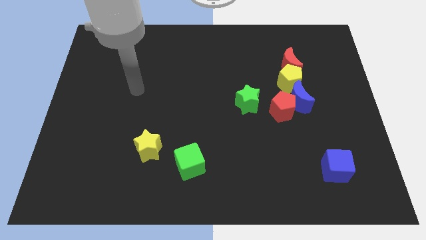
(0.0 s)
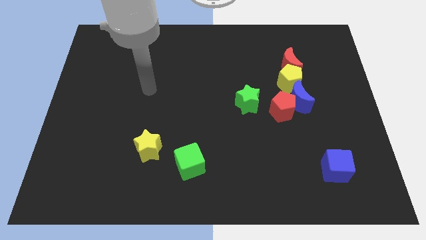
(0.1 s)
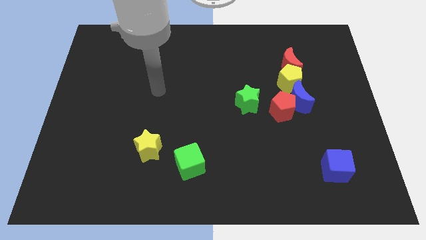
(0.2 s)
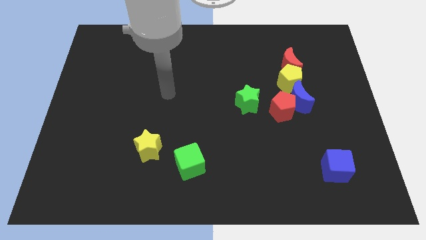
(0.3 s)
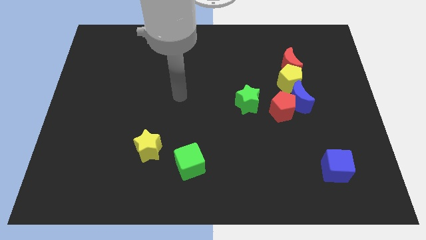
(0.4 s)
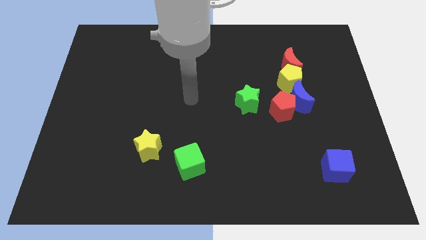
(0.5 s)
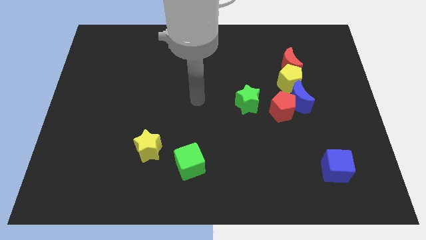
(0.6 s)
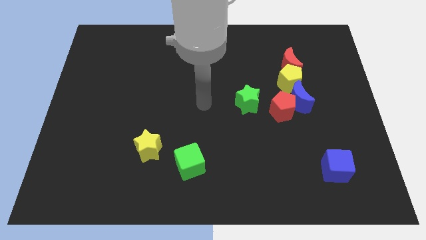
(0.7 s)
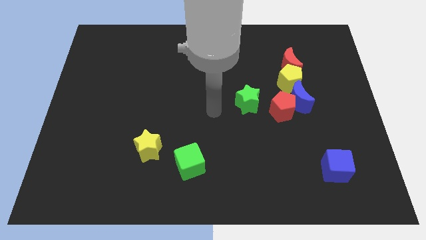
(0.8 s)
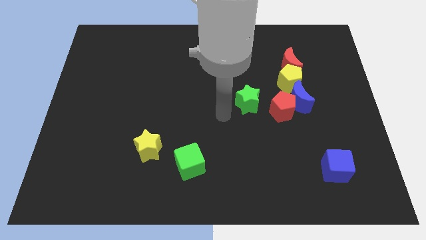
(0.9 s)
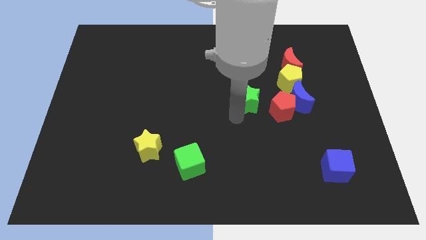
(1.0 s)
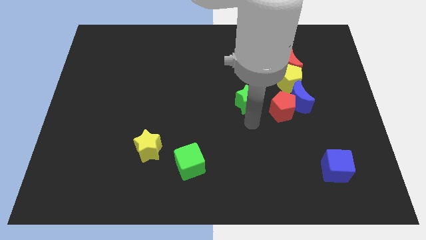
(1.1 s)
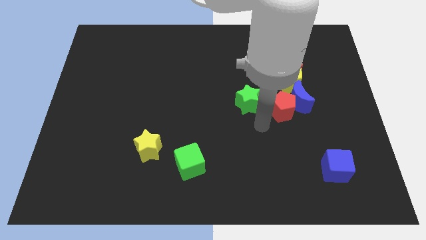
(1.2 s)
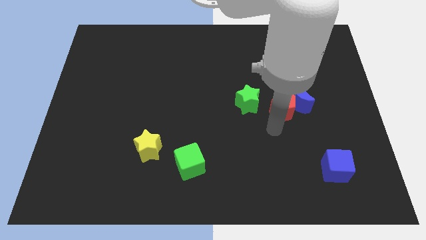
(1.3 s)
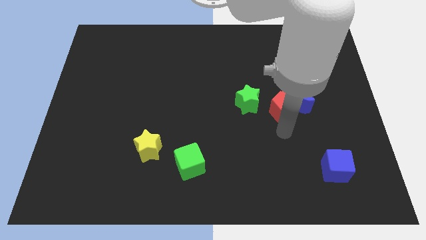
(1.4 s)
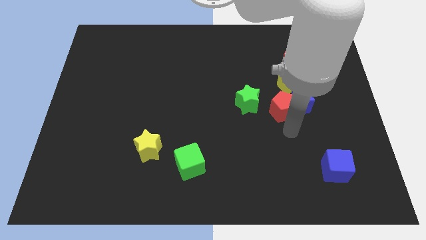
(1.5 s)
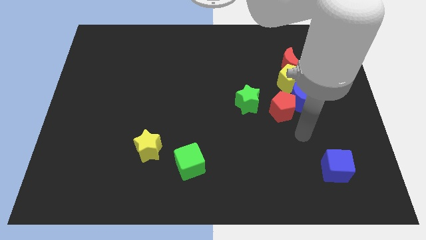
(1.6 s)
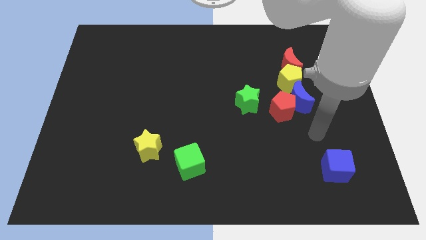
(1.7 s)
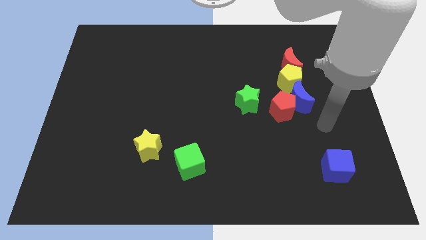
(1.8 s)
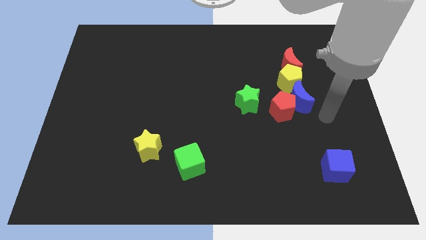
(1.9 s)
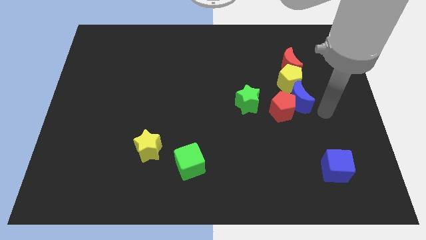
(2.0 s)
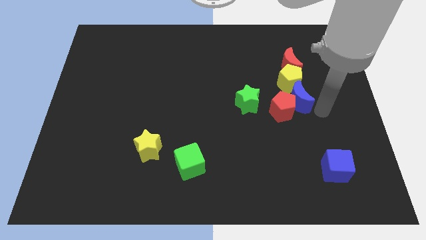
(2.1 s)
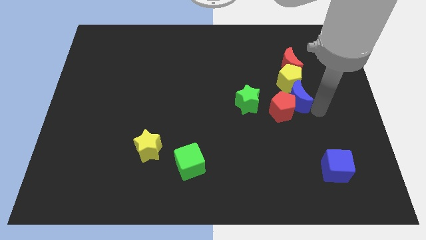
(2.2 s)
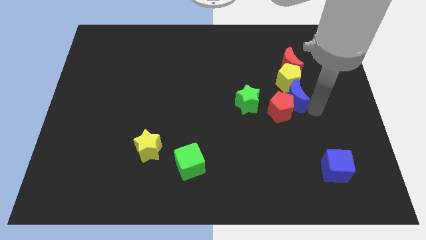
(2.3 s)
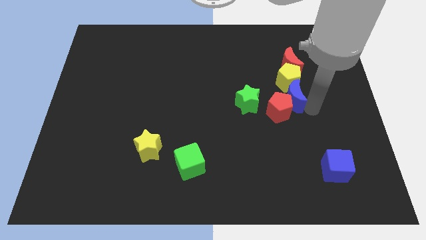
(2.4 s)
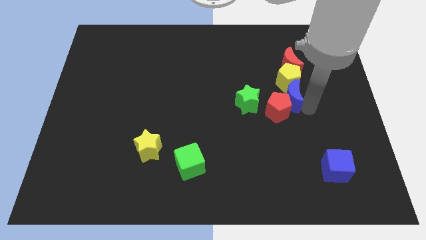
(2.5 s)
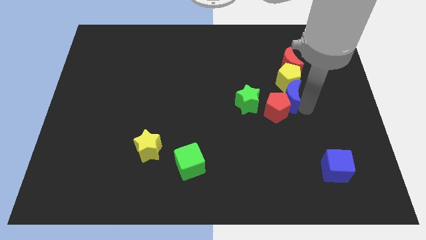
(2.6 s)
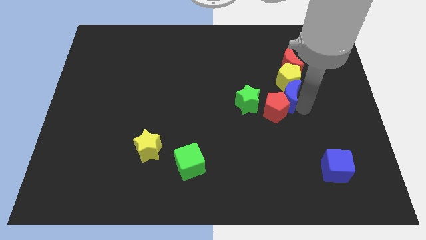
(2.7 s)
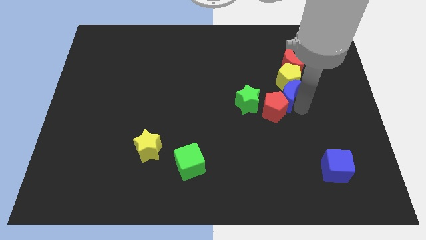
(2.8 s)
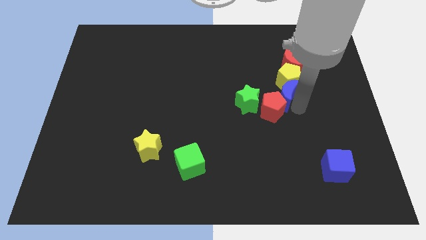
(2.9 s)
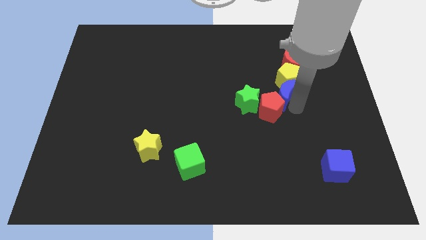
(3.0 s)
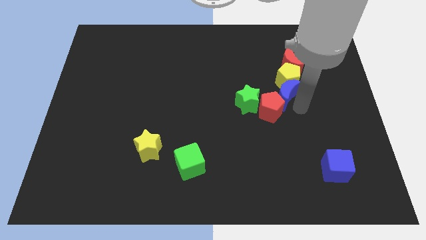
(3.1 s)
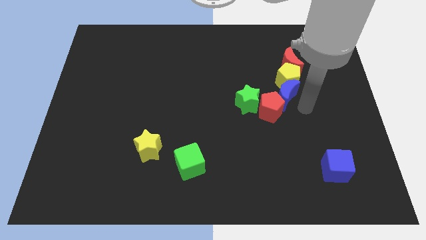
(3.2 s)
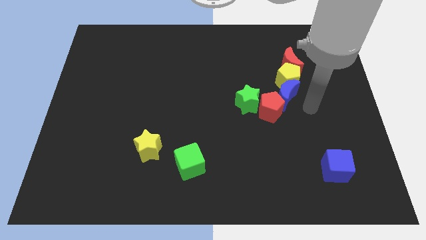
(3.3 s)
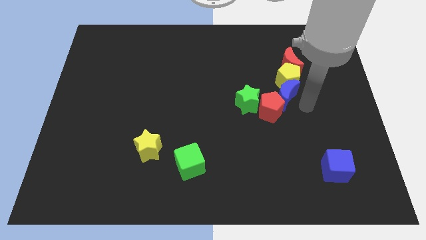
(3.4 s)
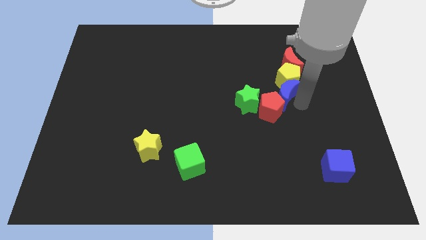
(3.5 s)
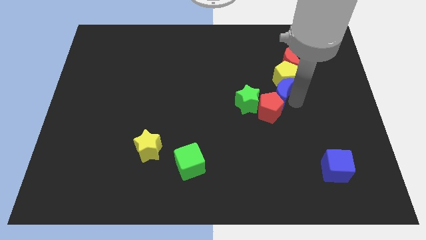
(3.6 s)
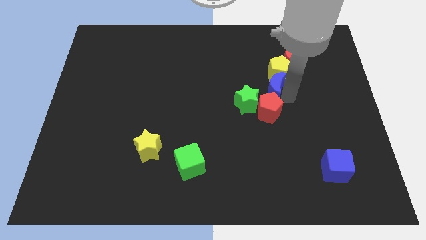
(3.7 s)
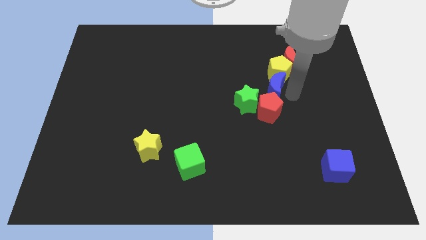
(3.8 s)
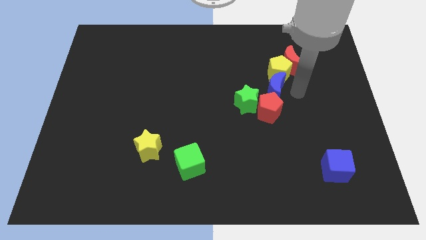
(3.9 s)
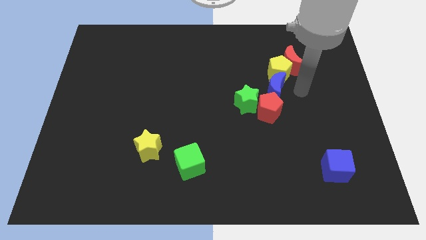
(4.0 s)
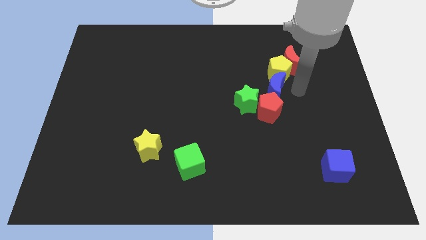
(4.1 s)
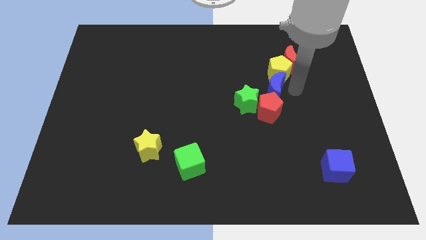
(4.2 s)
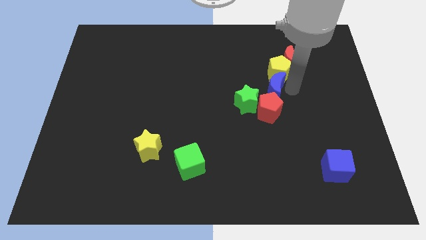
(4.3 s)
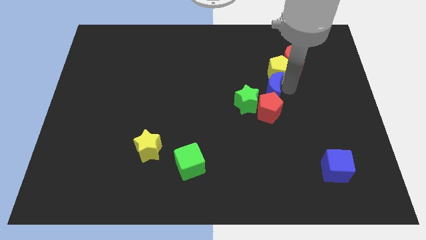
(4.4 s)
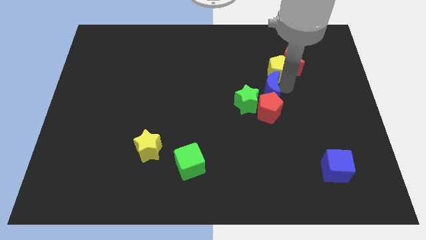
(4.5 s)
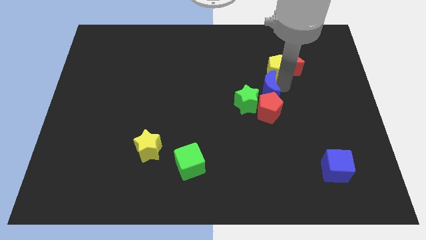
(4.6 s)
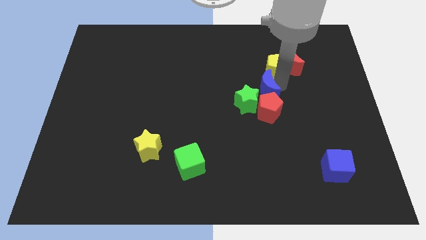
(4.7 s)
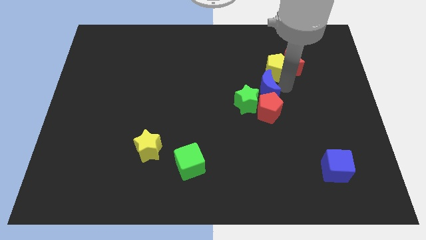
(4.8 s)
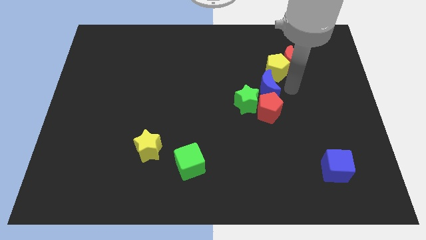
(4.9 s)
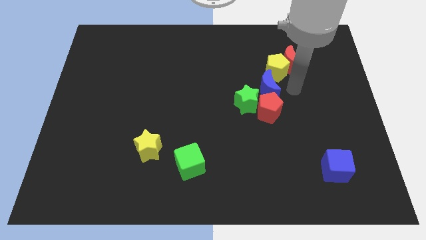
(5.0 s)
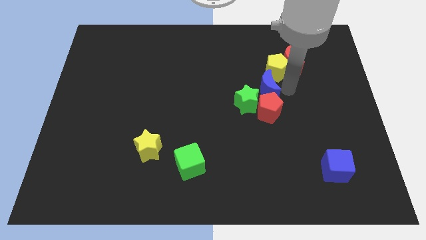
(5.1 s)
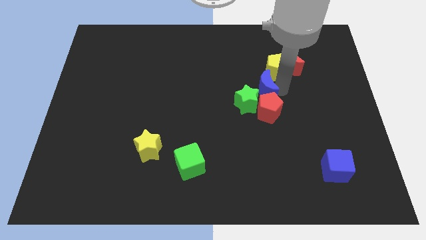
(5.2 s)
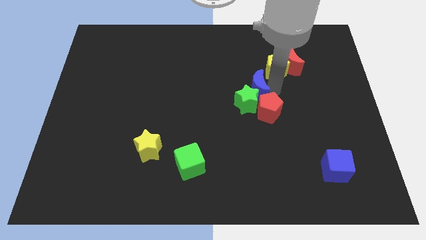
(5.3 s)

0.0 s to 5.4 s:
move the blue moon to the center of the board

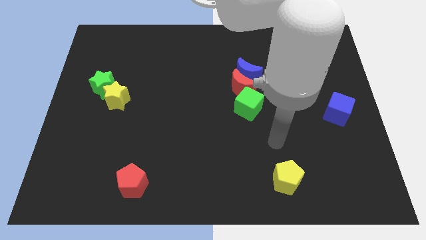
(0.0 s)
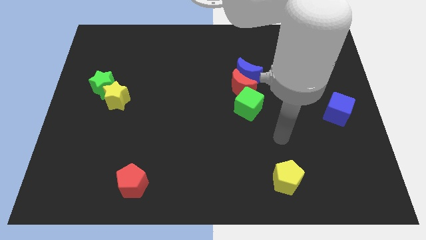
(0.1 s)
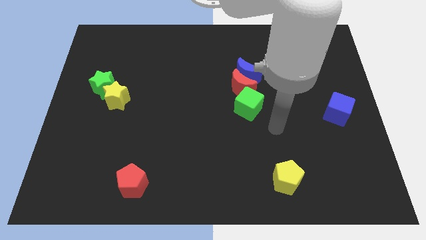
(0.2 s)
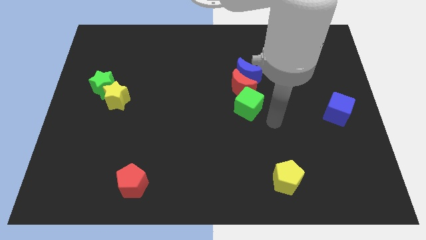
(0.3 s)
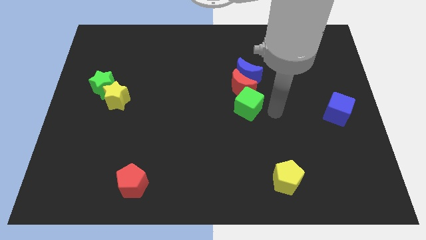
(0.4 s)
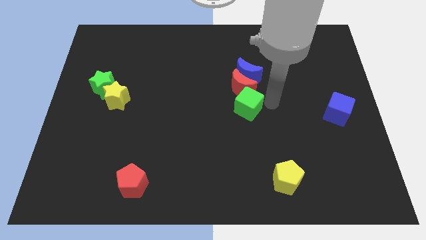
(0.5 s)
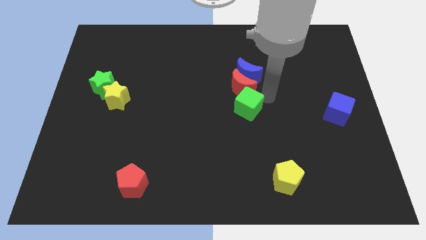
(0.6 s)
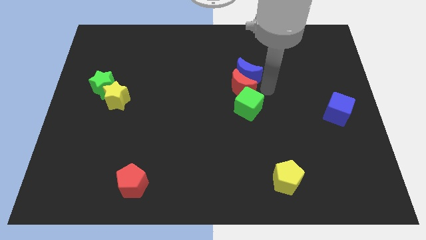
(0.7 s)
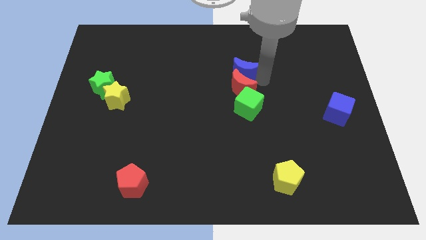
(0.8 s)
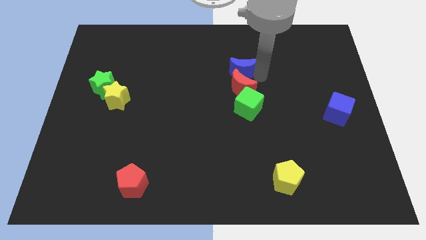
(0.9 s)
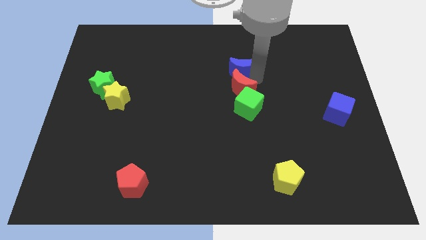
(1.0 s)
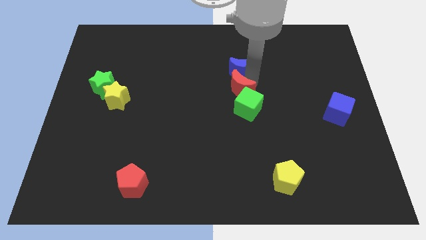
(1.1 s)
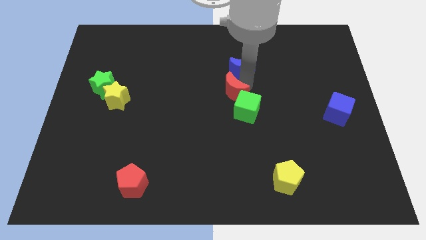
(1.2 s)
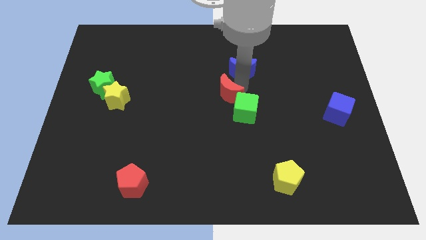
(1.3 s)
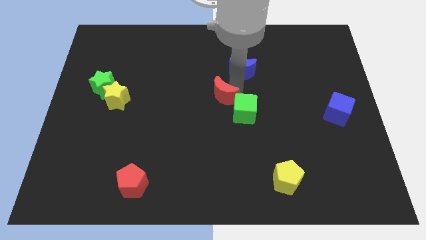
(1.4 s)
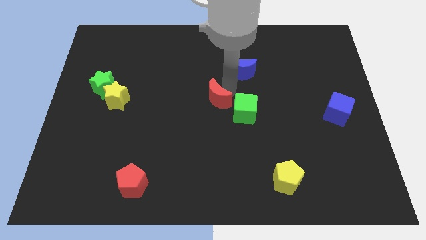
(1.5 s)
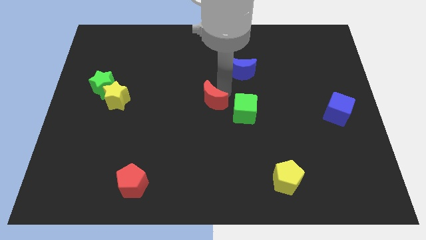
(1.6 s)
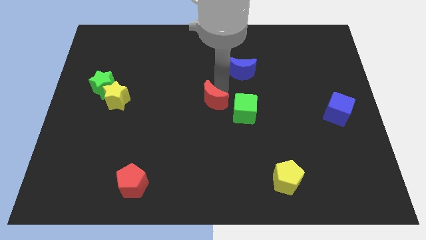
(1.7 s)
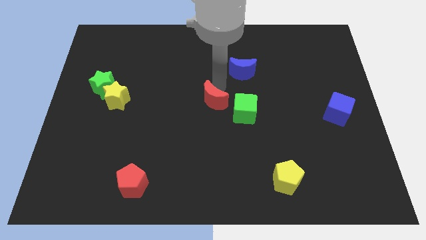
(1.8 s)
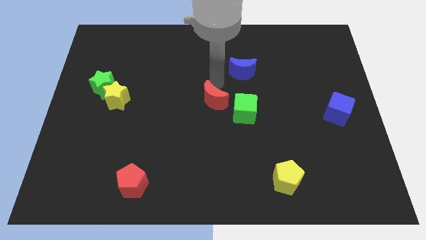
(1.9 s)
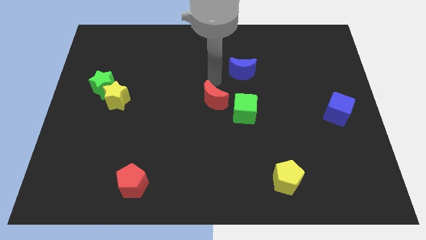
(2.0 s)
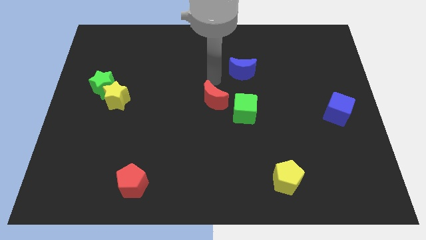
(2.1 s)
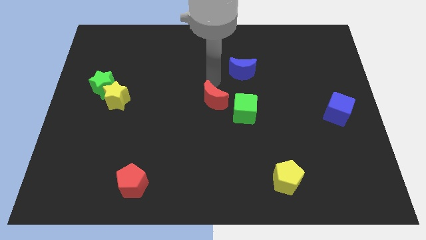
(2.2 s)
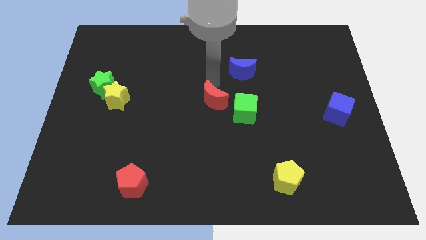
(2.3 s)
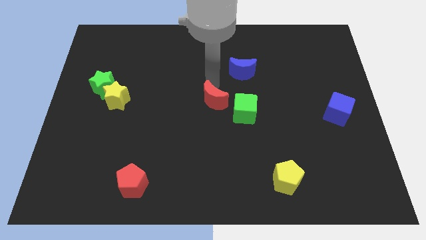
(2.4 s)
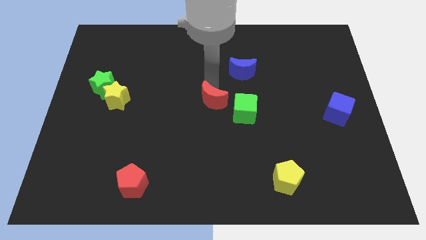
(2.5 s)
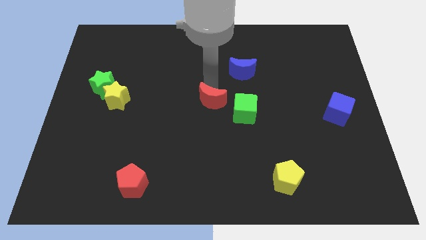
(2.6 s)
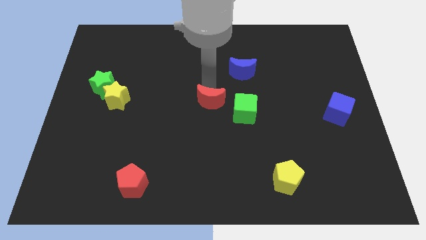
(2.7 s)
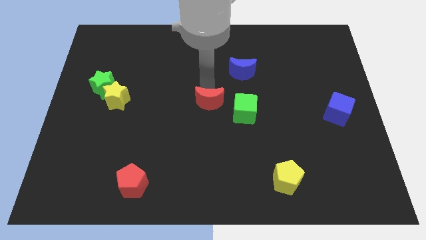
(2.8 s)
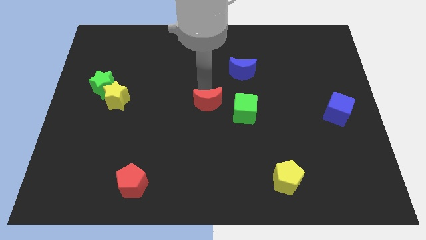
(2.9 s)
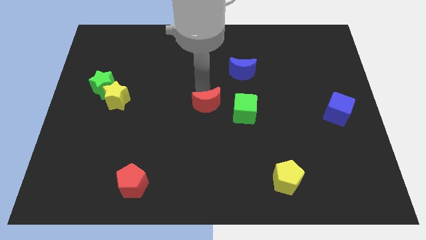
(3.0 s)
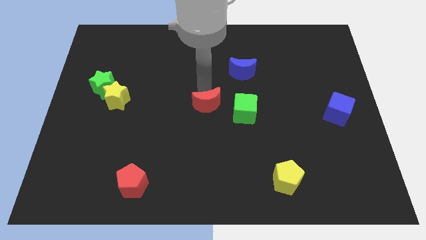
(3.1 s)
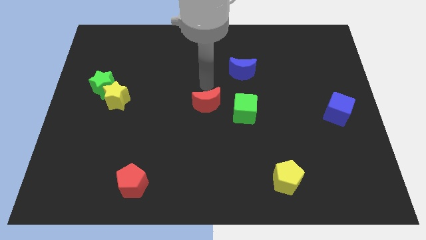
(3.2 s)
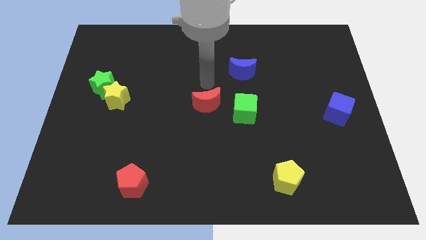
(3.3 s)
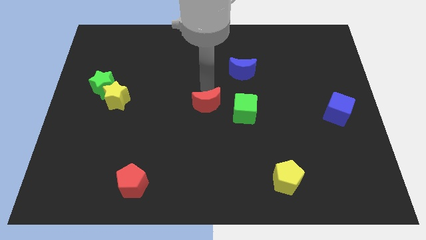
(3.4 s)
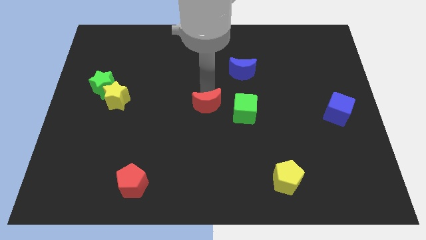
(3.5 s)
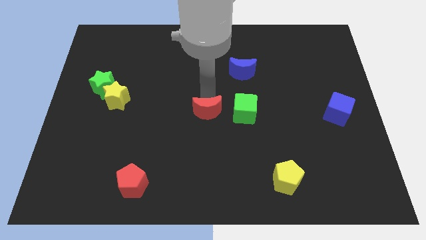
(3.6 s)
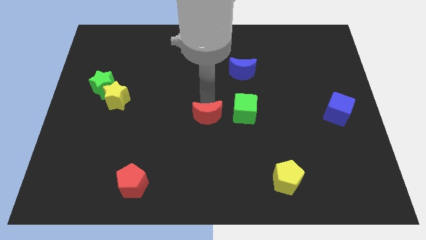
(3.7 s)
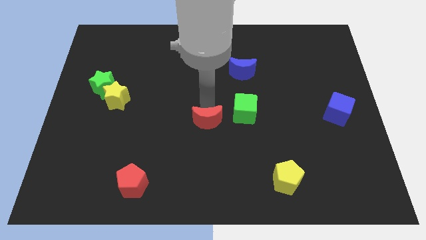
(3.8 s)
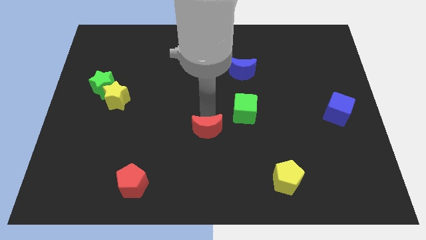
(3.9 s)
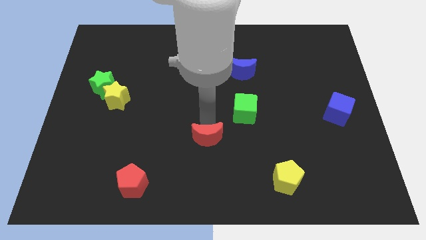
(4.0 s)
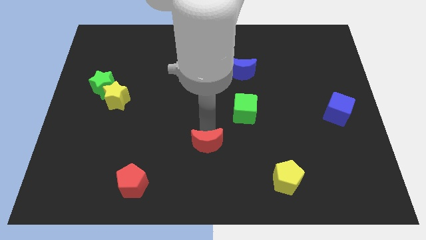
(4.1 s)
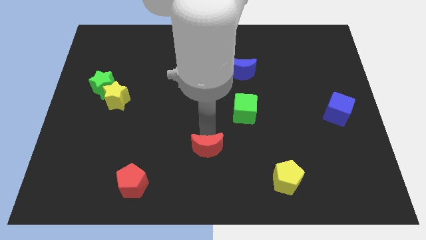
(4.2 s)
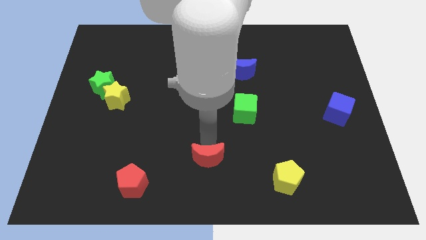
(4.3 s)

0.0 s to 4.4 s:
move the red moon to the bottom side
